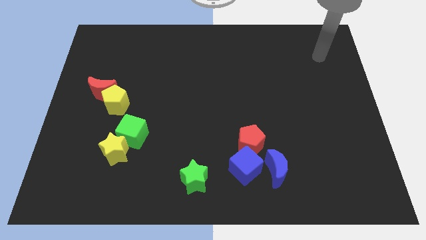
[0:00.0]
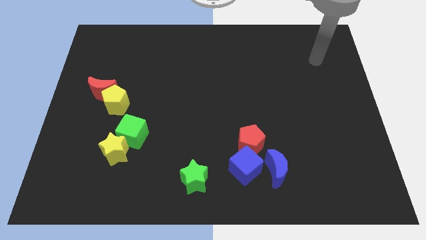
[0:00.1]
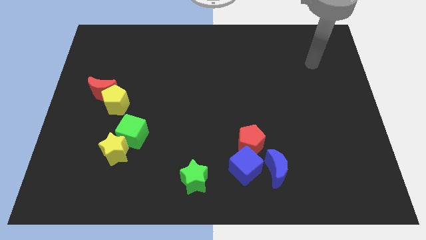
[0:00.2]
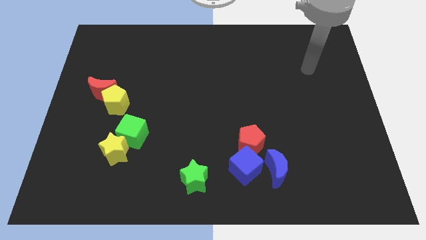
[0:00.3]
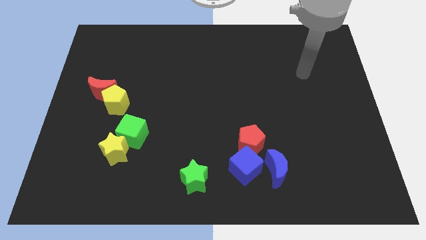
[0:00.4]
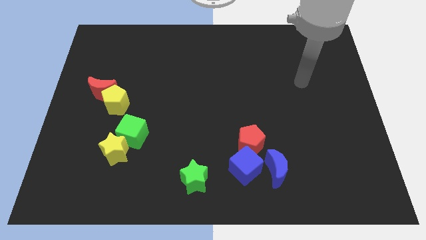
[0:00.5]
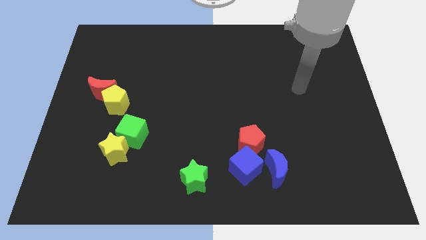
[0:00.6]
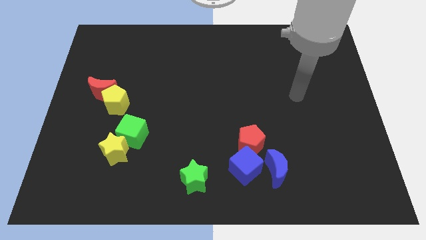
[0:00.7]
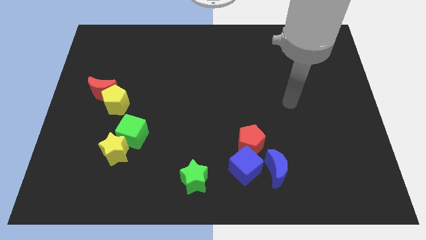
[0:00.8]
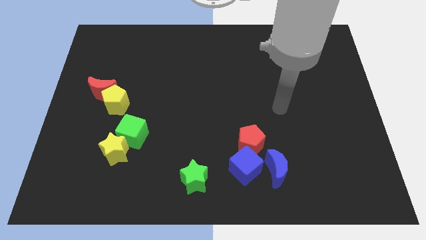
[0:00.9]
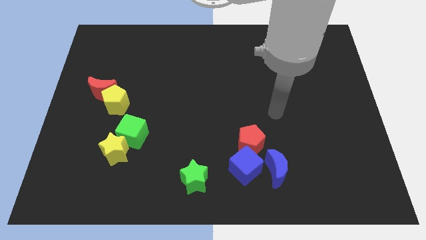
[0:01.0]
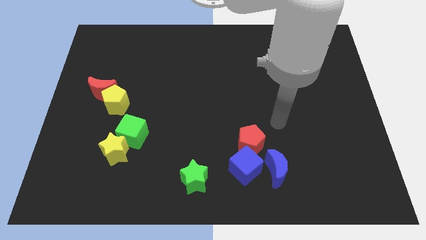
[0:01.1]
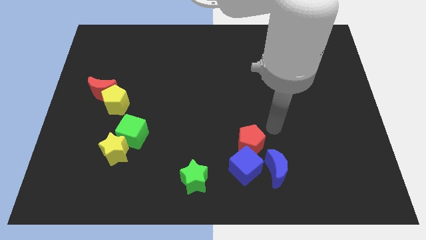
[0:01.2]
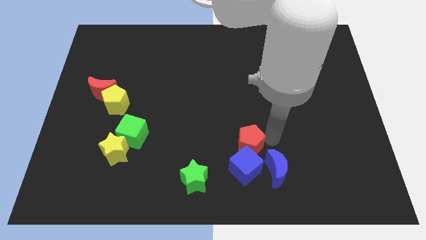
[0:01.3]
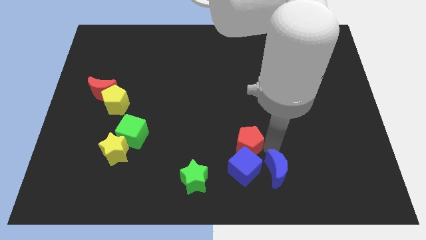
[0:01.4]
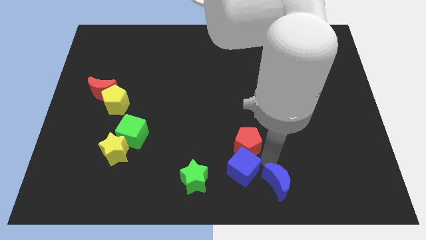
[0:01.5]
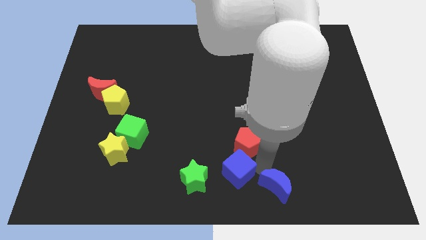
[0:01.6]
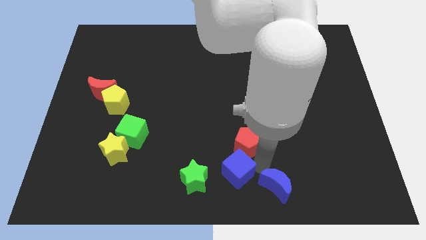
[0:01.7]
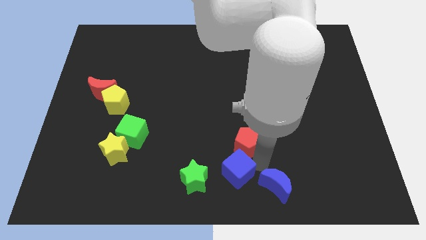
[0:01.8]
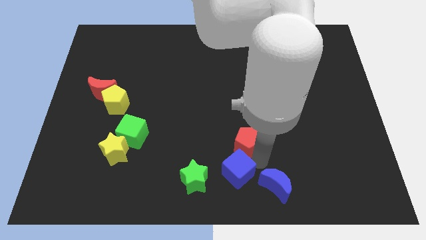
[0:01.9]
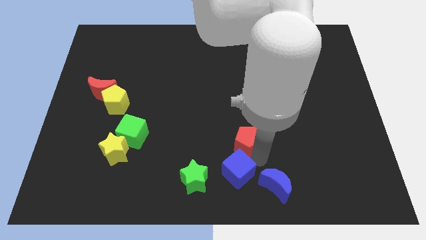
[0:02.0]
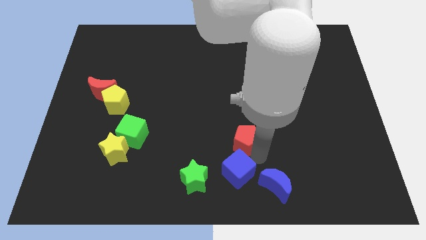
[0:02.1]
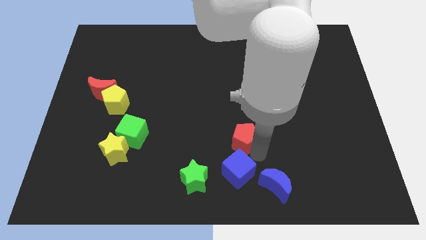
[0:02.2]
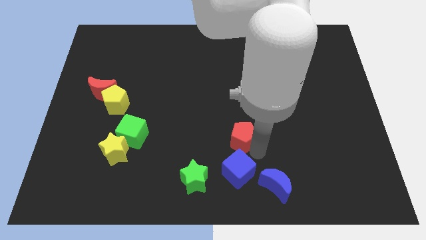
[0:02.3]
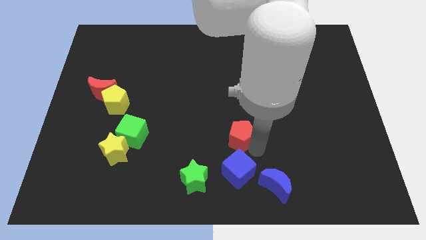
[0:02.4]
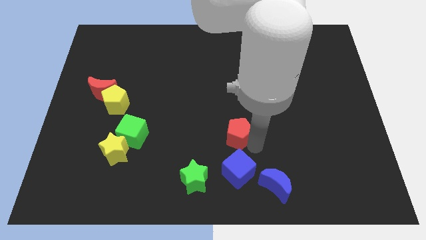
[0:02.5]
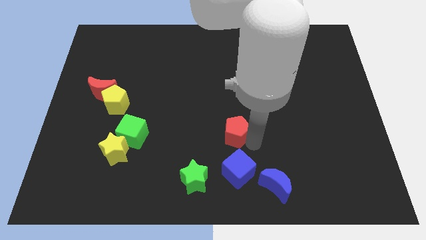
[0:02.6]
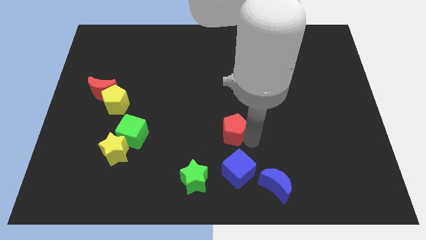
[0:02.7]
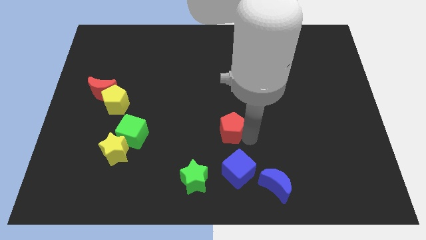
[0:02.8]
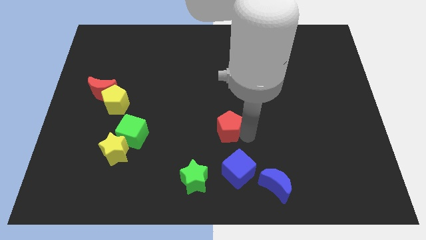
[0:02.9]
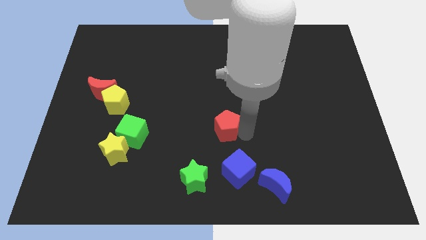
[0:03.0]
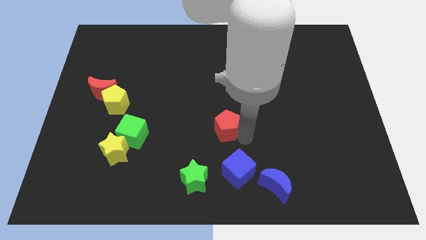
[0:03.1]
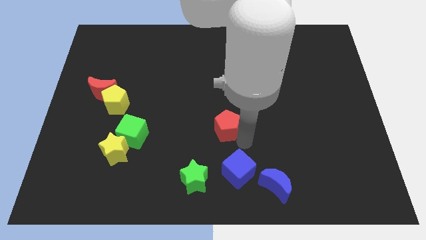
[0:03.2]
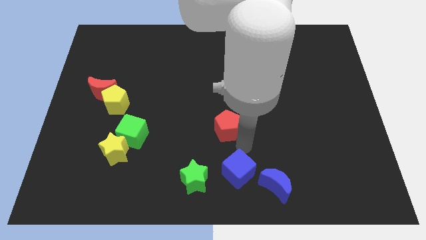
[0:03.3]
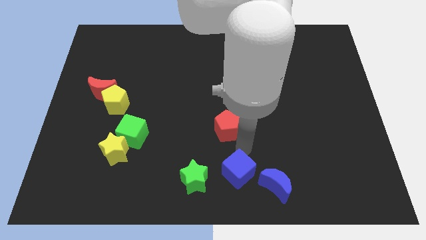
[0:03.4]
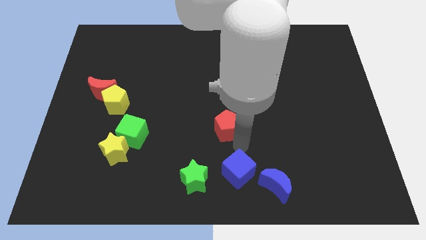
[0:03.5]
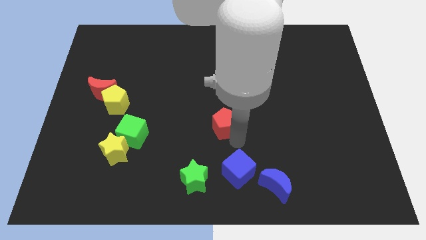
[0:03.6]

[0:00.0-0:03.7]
push the red pentagon a little diagonally upwards and left

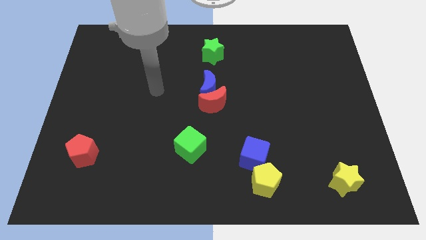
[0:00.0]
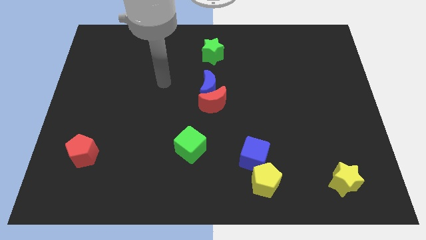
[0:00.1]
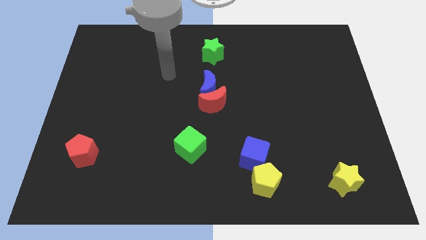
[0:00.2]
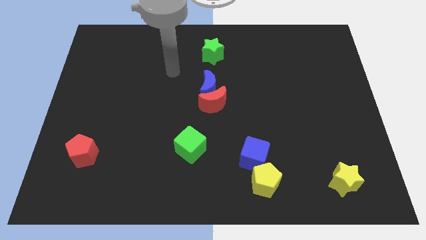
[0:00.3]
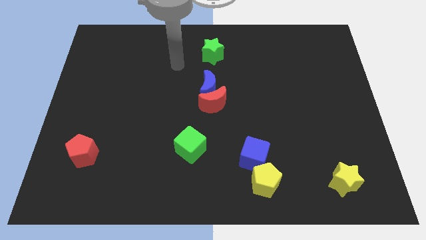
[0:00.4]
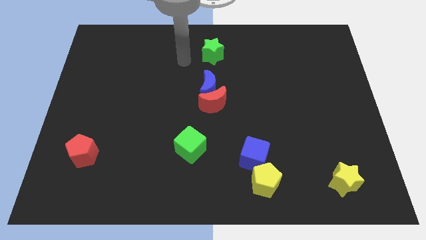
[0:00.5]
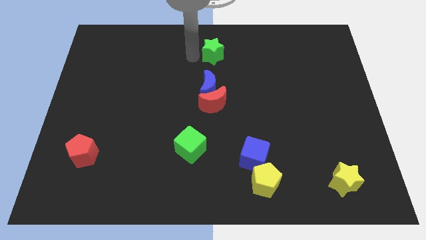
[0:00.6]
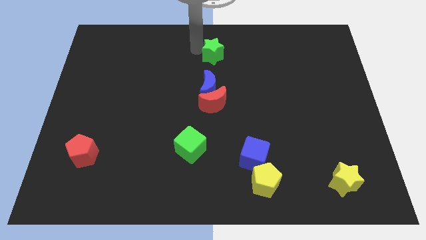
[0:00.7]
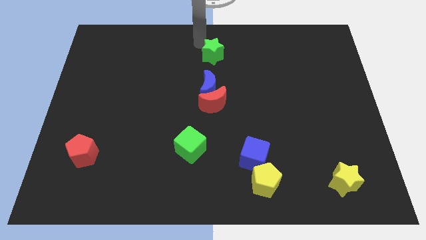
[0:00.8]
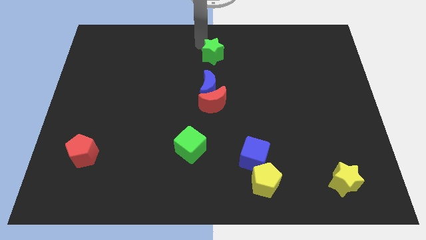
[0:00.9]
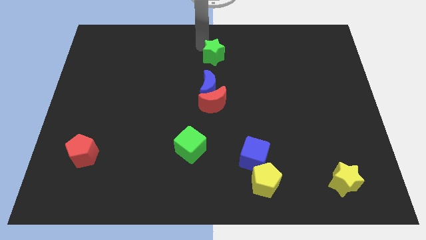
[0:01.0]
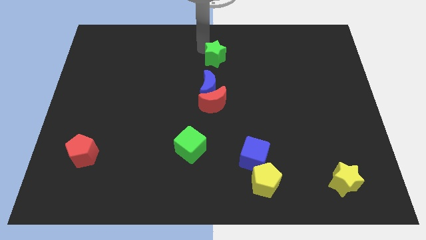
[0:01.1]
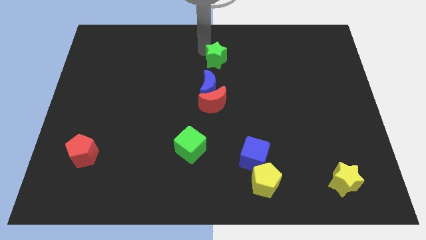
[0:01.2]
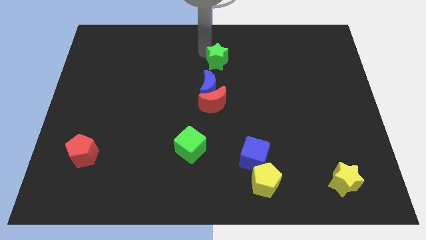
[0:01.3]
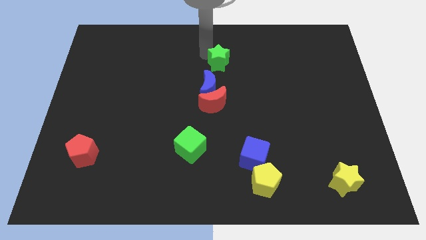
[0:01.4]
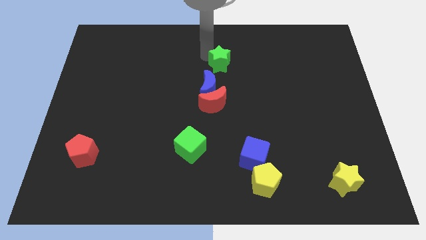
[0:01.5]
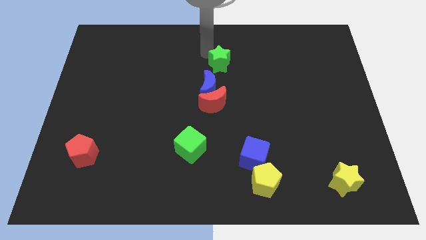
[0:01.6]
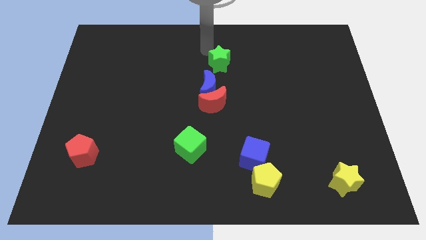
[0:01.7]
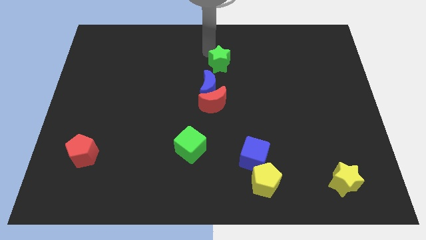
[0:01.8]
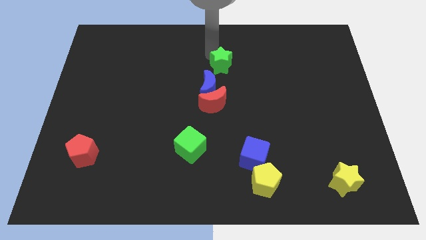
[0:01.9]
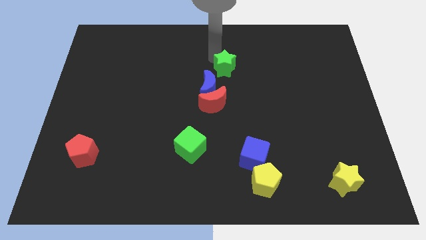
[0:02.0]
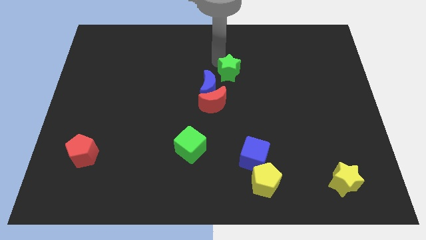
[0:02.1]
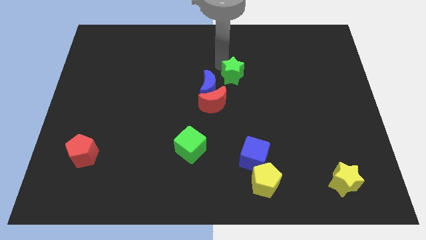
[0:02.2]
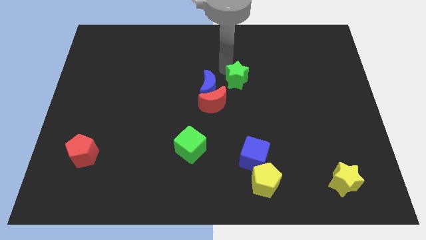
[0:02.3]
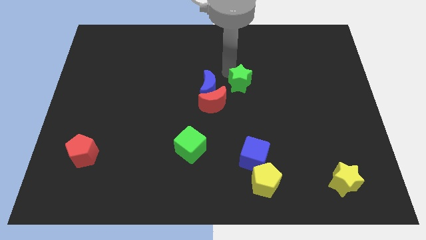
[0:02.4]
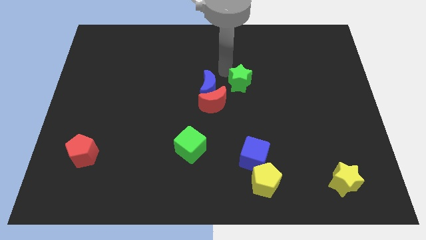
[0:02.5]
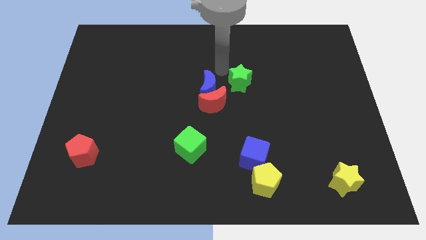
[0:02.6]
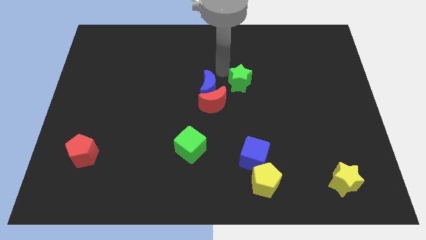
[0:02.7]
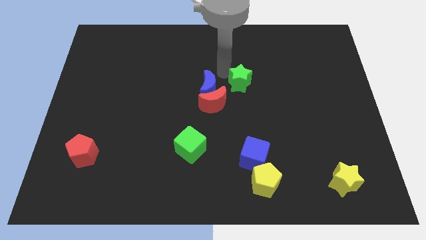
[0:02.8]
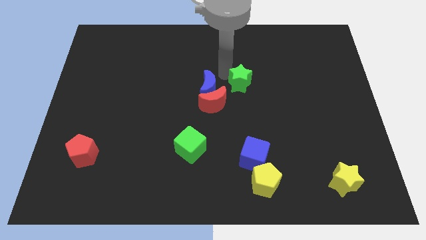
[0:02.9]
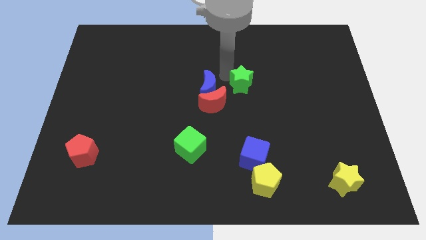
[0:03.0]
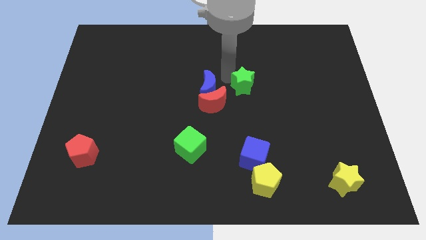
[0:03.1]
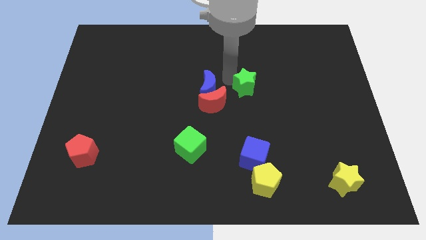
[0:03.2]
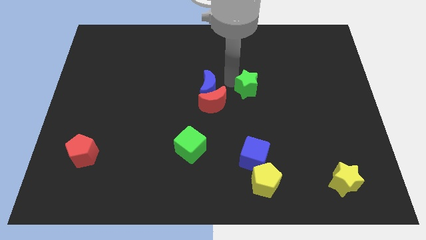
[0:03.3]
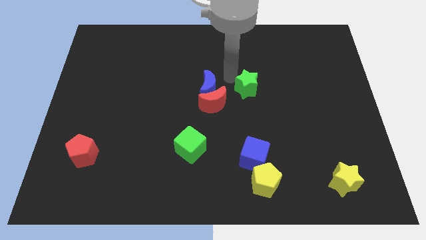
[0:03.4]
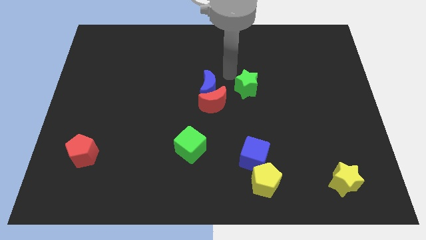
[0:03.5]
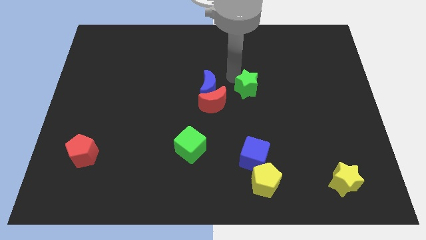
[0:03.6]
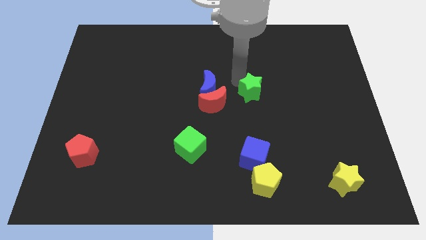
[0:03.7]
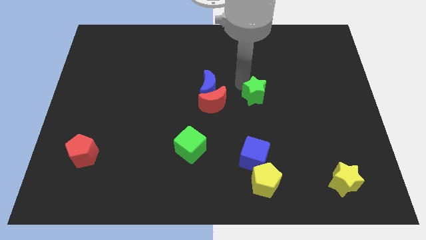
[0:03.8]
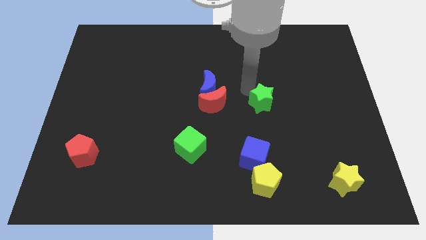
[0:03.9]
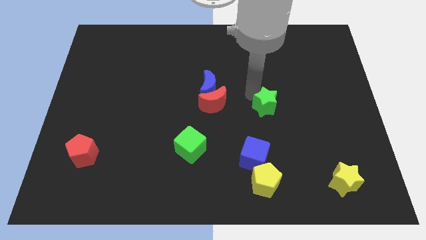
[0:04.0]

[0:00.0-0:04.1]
slide the green star downwards and then to the right

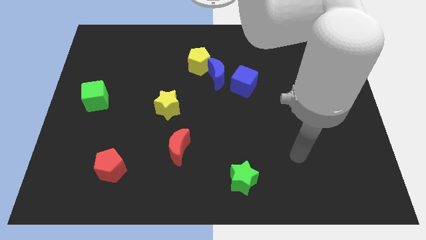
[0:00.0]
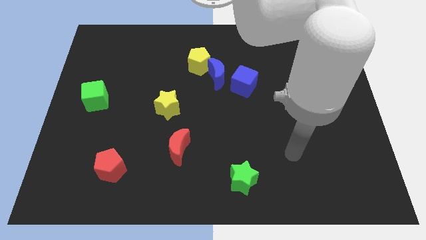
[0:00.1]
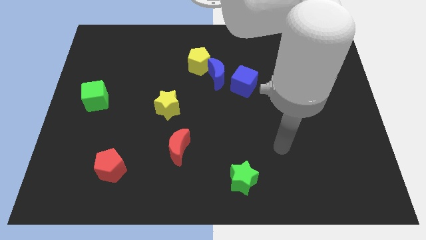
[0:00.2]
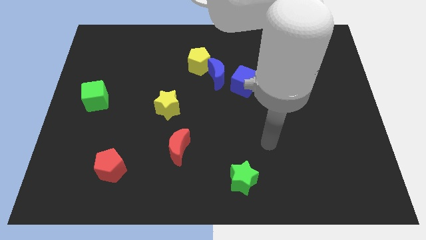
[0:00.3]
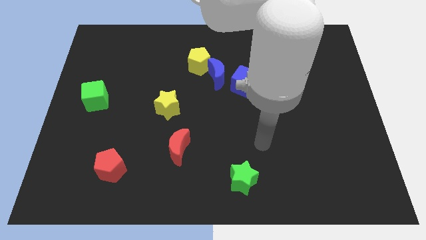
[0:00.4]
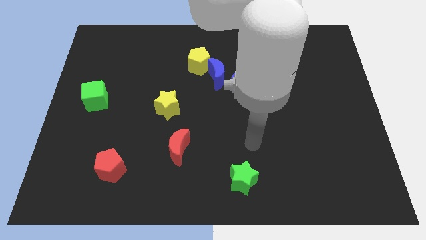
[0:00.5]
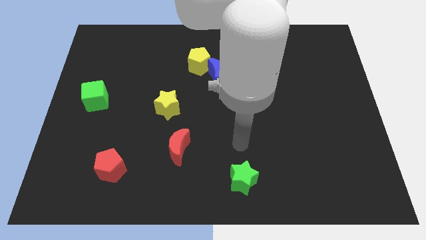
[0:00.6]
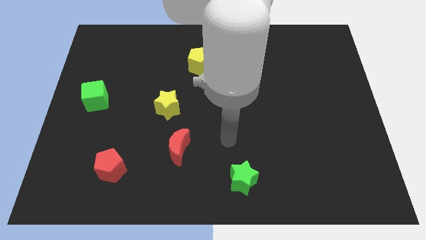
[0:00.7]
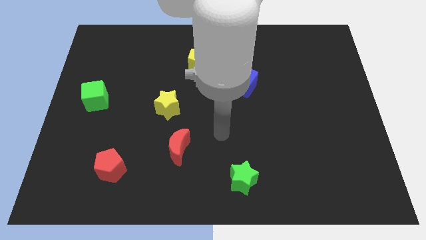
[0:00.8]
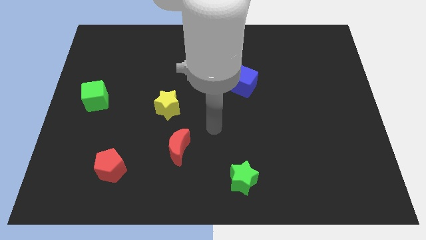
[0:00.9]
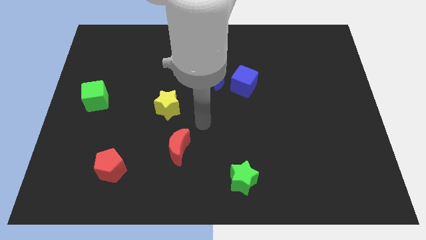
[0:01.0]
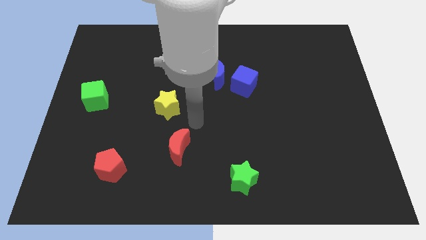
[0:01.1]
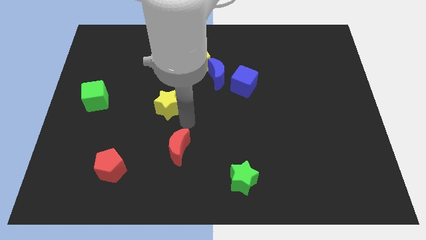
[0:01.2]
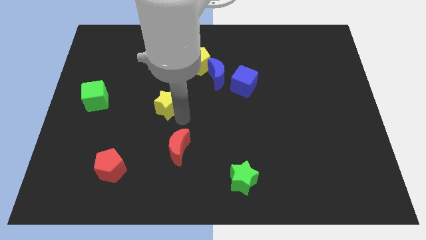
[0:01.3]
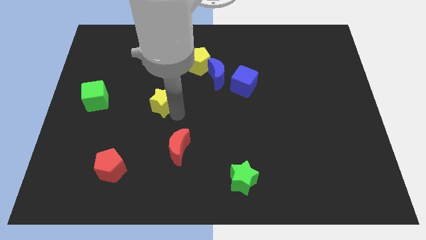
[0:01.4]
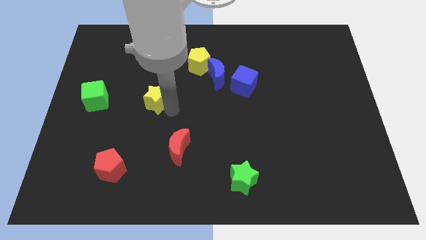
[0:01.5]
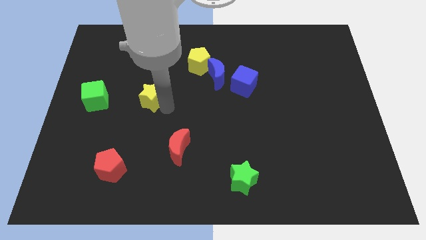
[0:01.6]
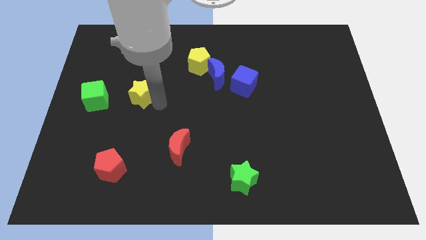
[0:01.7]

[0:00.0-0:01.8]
slide the yellow star upwards and then to the left slightly
